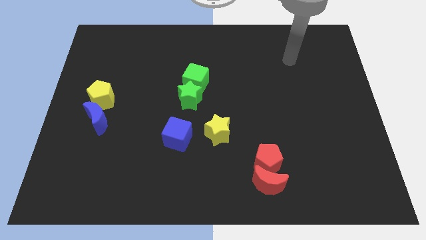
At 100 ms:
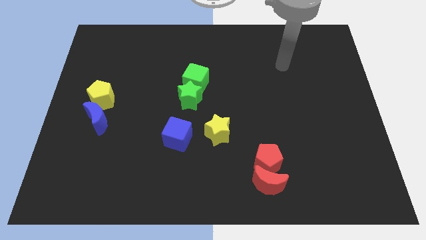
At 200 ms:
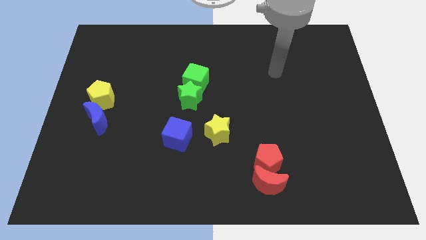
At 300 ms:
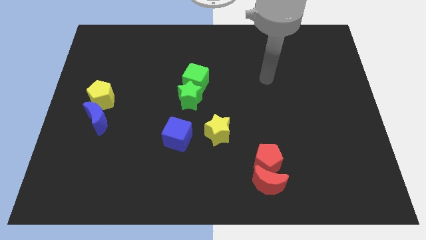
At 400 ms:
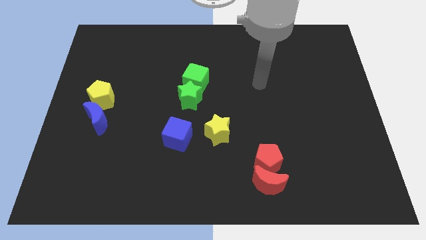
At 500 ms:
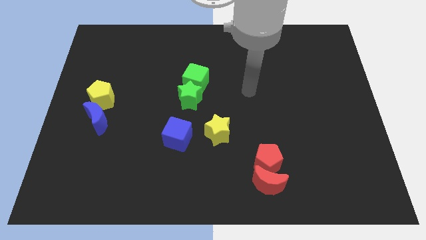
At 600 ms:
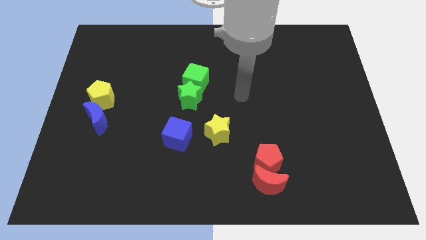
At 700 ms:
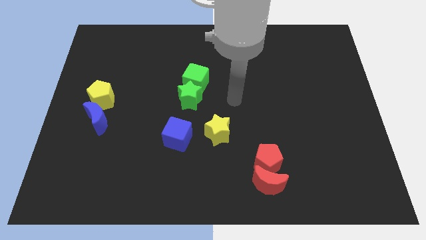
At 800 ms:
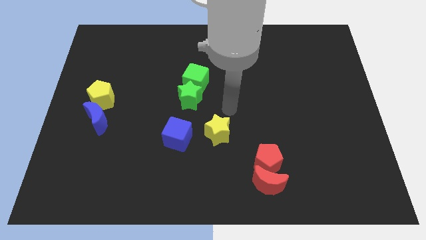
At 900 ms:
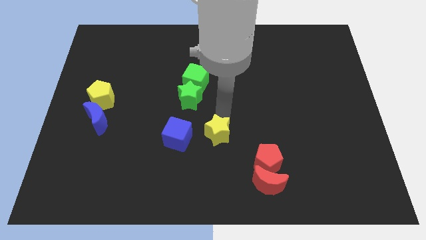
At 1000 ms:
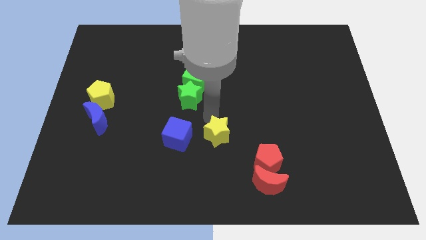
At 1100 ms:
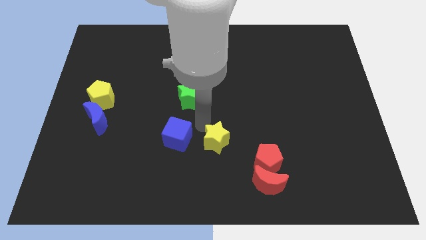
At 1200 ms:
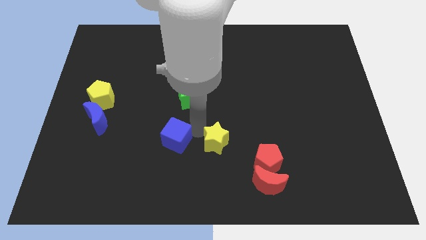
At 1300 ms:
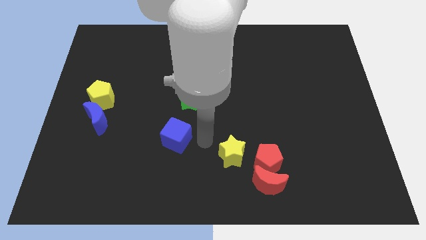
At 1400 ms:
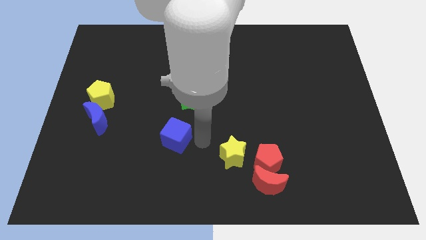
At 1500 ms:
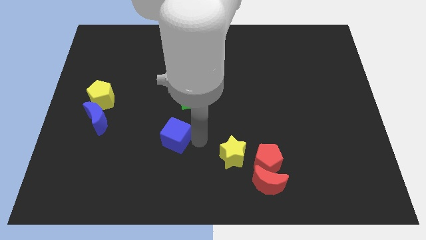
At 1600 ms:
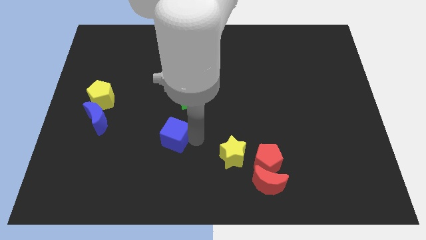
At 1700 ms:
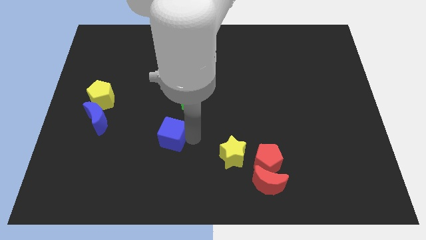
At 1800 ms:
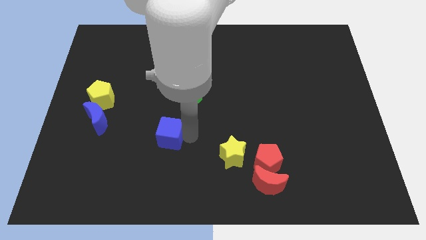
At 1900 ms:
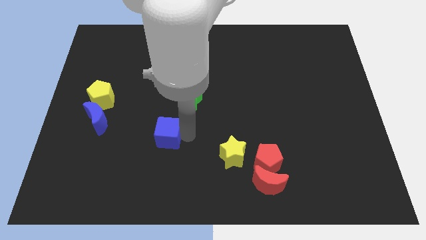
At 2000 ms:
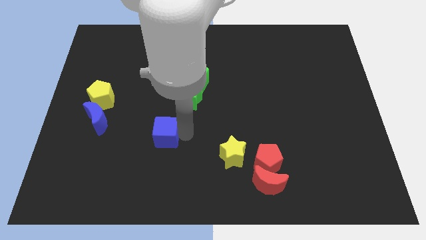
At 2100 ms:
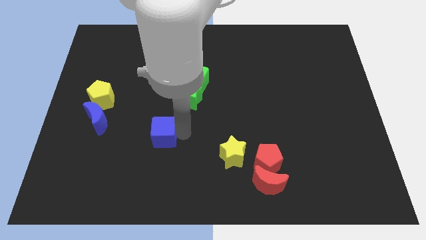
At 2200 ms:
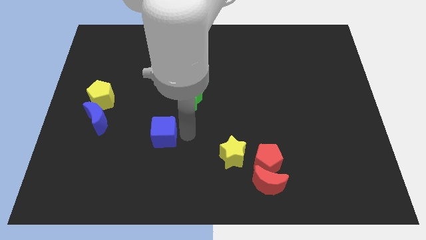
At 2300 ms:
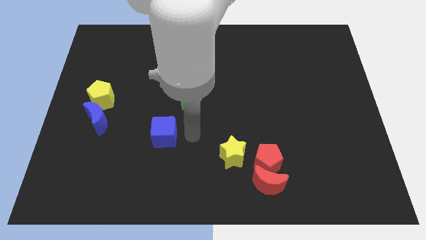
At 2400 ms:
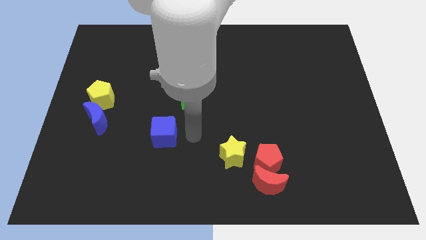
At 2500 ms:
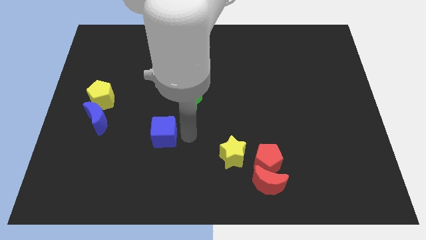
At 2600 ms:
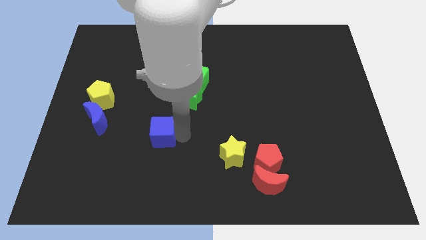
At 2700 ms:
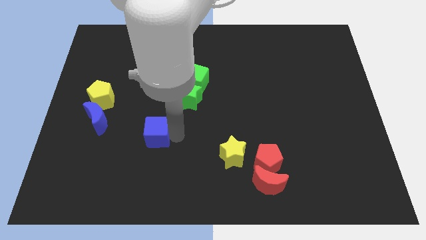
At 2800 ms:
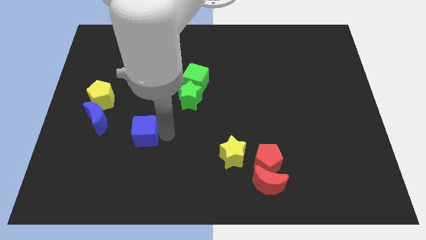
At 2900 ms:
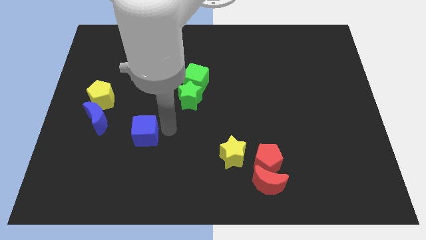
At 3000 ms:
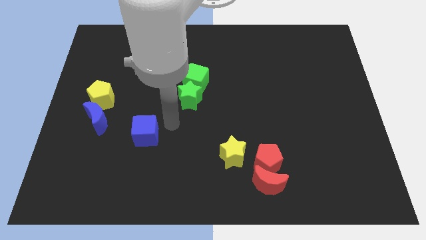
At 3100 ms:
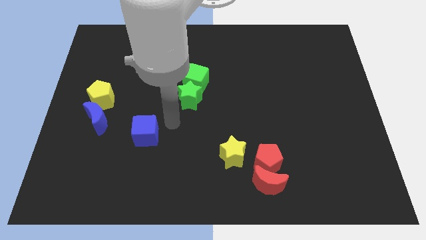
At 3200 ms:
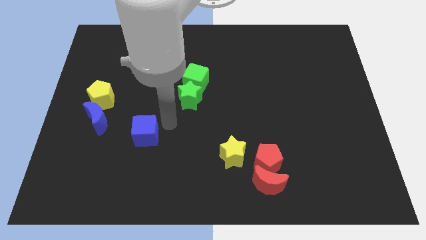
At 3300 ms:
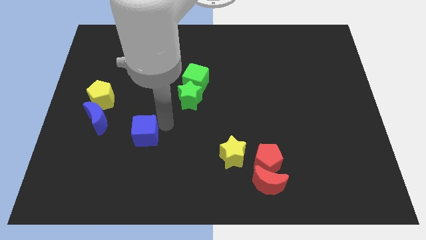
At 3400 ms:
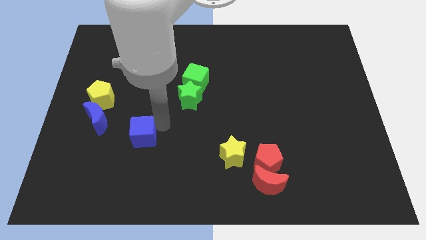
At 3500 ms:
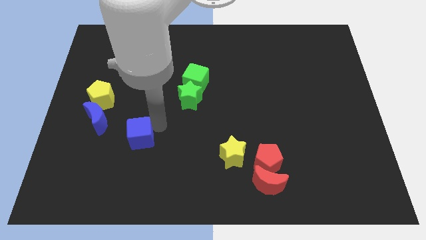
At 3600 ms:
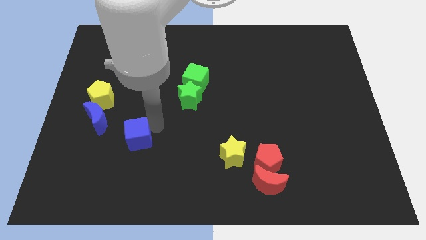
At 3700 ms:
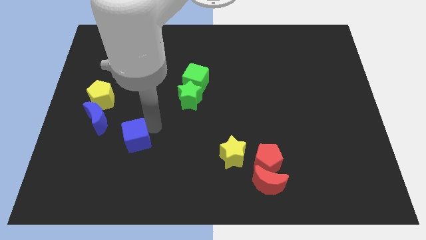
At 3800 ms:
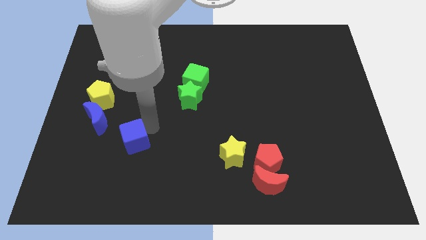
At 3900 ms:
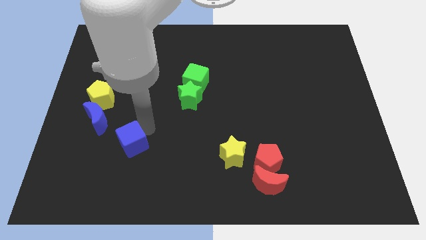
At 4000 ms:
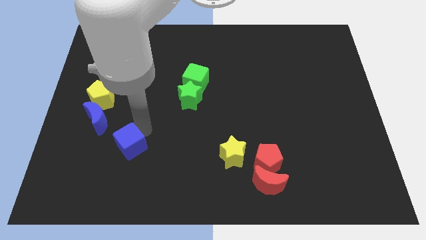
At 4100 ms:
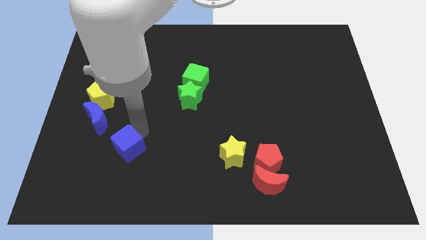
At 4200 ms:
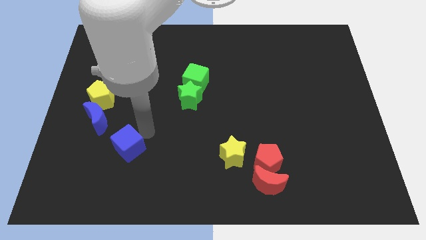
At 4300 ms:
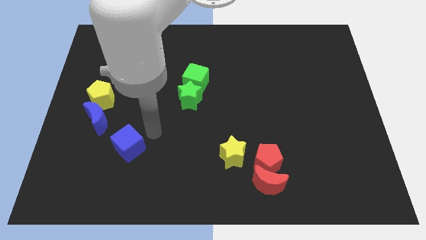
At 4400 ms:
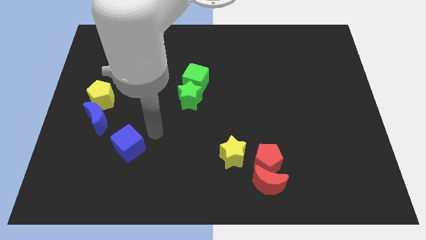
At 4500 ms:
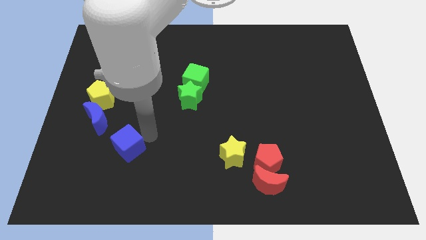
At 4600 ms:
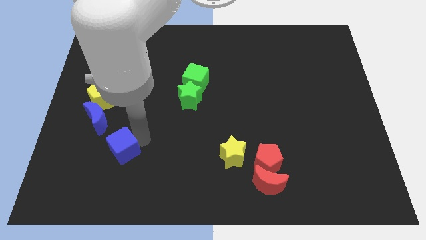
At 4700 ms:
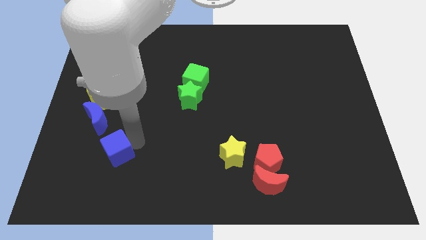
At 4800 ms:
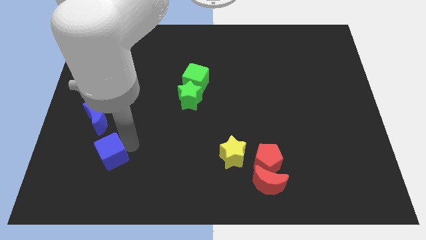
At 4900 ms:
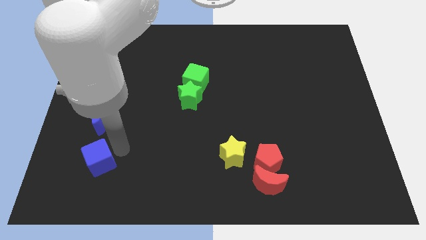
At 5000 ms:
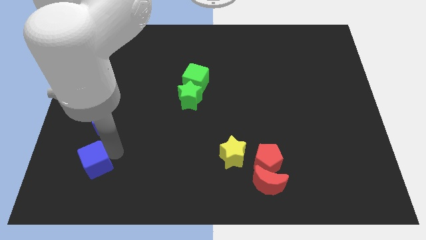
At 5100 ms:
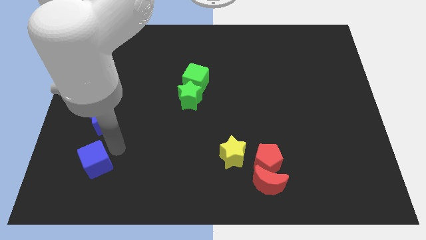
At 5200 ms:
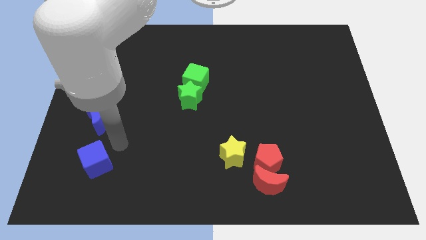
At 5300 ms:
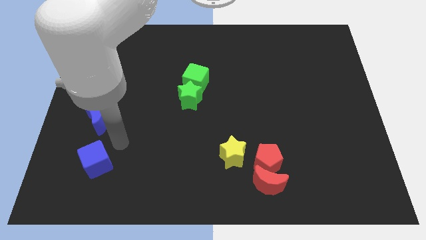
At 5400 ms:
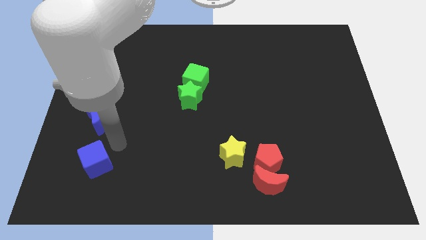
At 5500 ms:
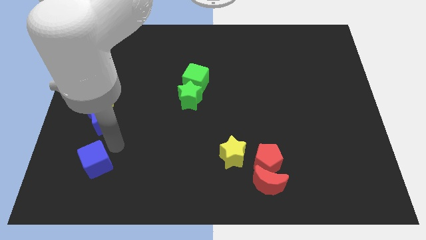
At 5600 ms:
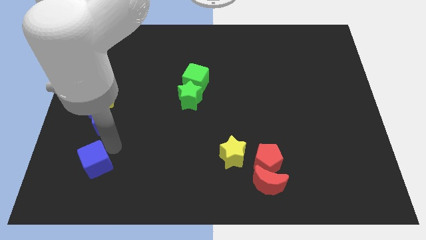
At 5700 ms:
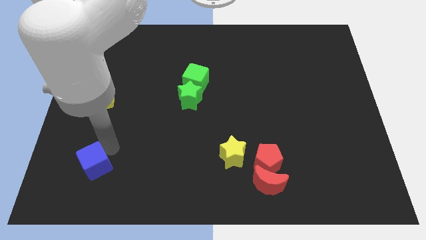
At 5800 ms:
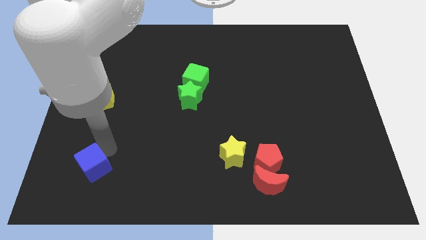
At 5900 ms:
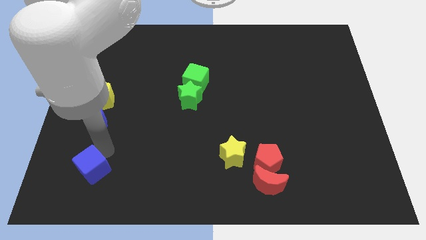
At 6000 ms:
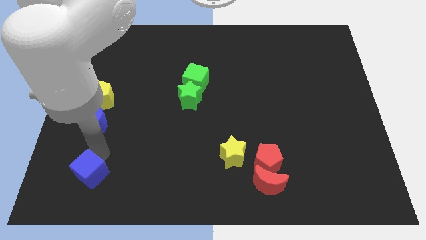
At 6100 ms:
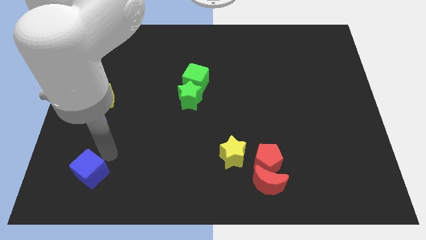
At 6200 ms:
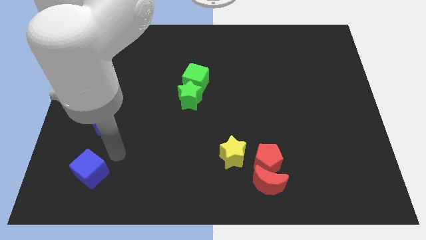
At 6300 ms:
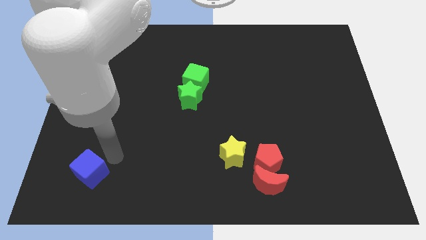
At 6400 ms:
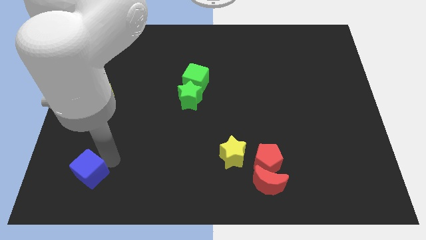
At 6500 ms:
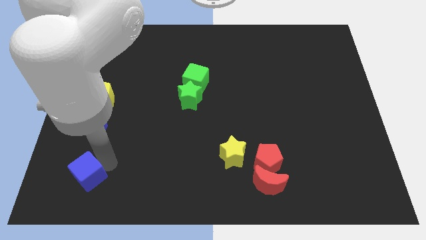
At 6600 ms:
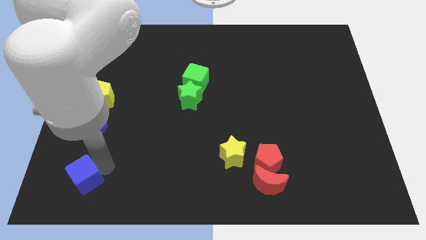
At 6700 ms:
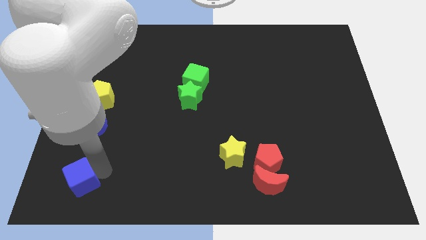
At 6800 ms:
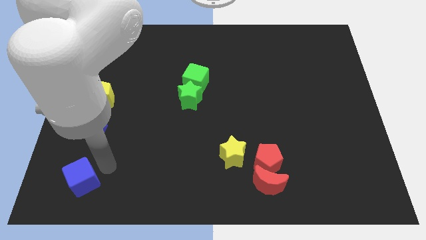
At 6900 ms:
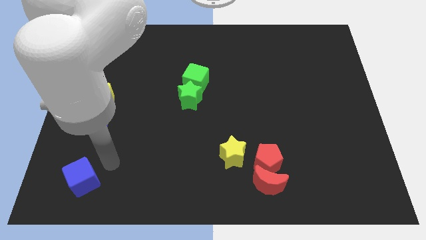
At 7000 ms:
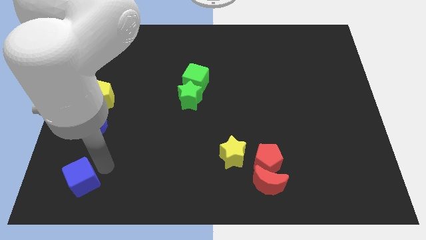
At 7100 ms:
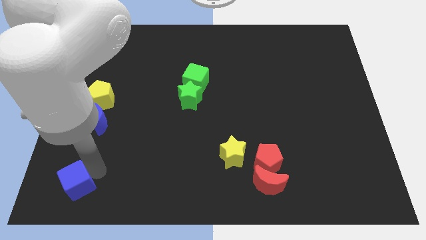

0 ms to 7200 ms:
slide the blue cube to the bottom left corner
